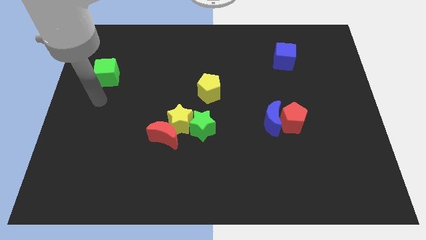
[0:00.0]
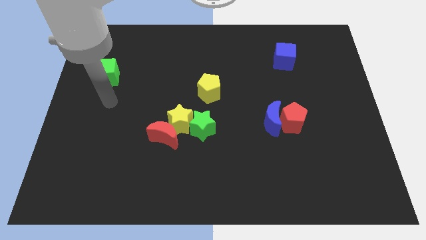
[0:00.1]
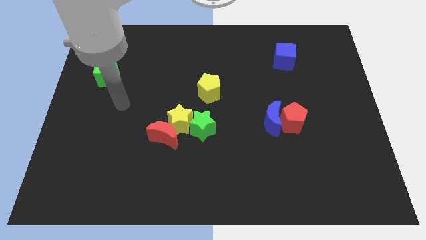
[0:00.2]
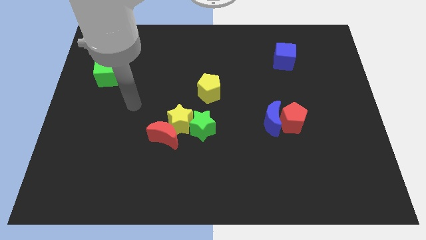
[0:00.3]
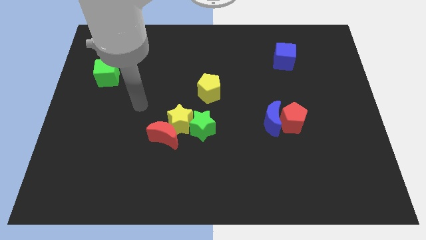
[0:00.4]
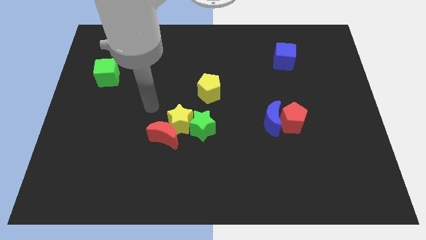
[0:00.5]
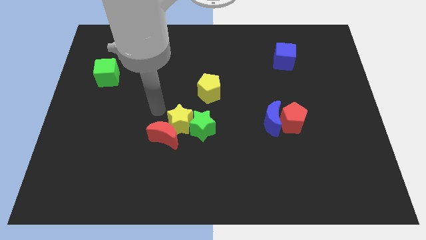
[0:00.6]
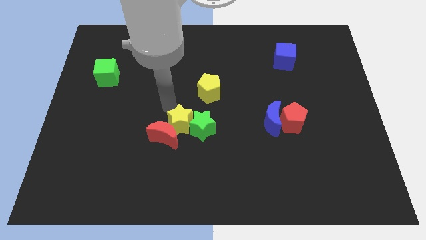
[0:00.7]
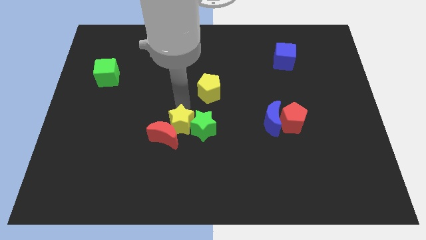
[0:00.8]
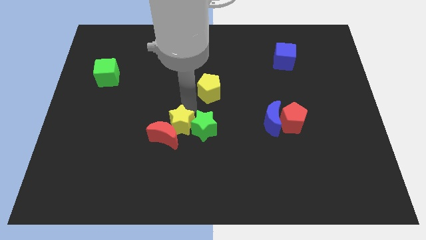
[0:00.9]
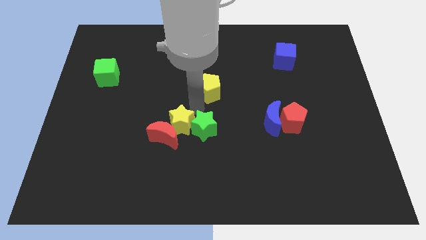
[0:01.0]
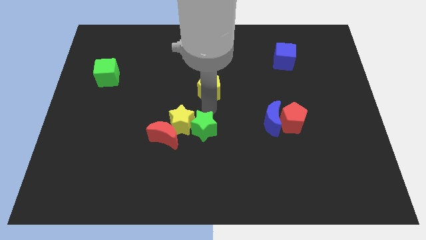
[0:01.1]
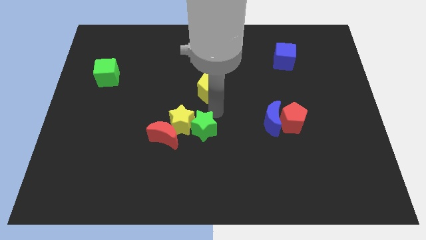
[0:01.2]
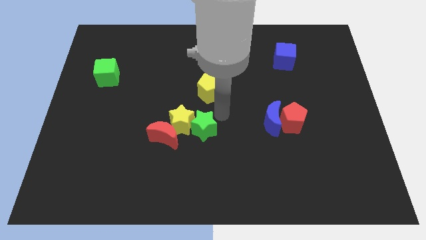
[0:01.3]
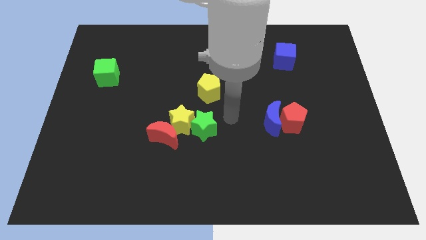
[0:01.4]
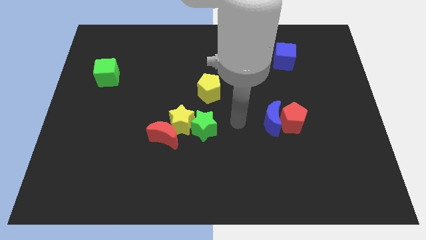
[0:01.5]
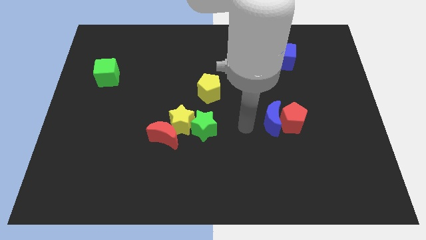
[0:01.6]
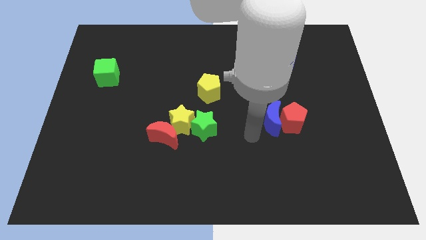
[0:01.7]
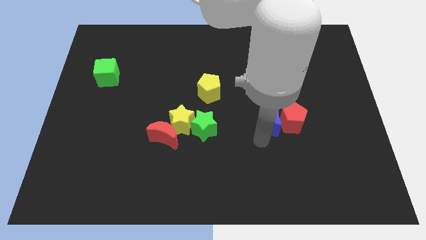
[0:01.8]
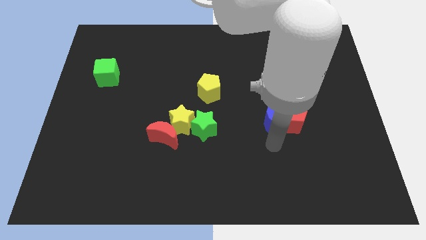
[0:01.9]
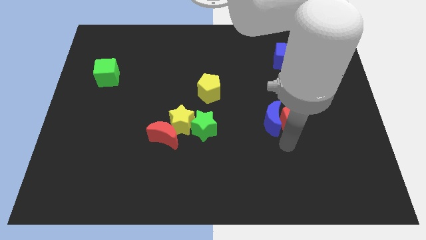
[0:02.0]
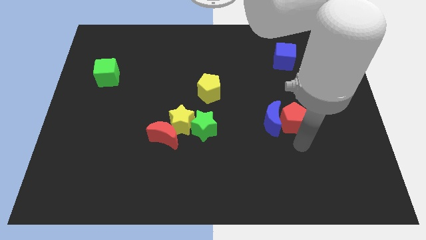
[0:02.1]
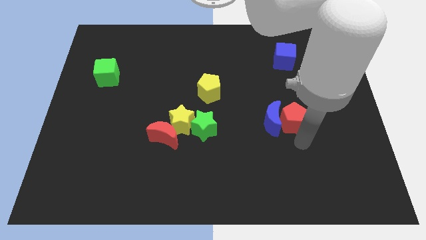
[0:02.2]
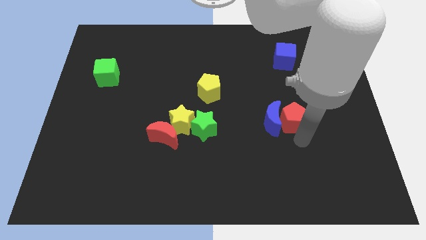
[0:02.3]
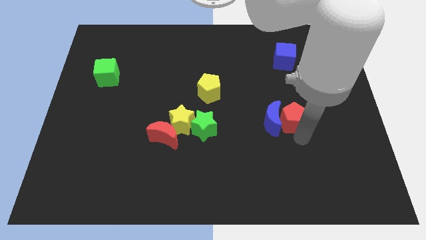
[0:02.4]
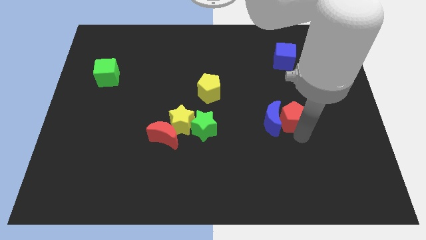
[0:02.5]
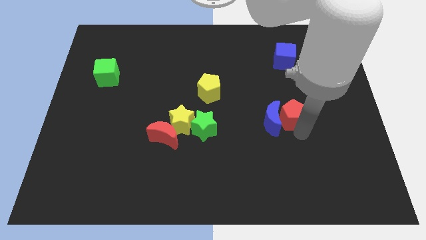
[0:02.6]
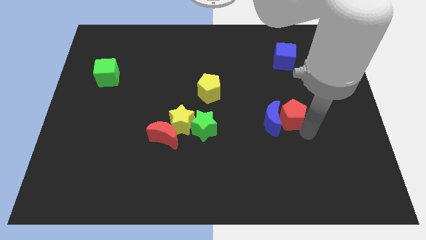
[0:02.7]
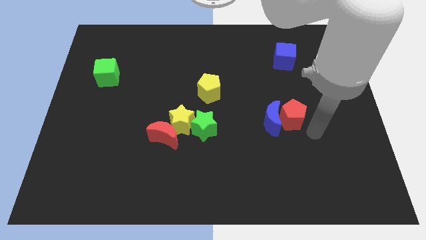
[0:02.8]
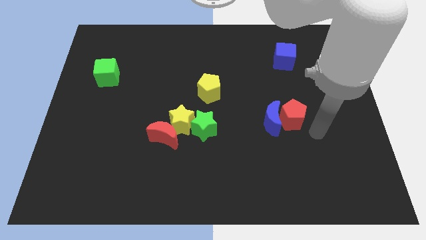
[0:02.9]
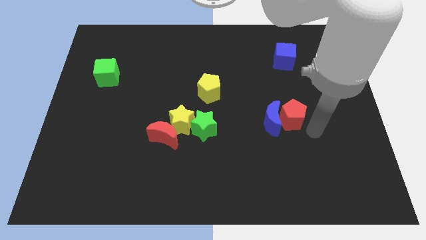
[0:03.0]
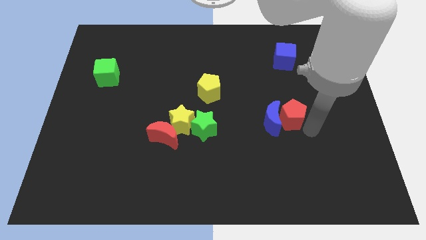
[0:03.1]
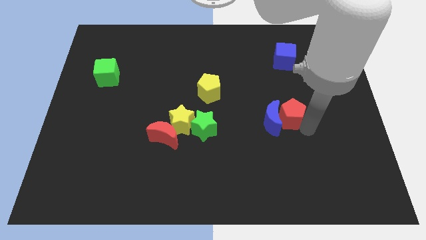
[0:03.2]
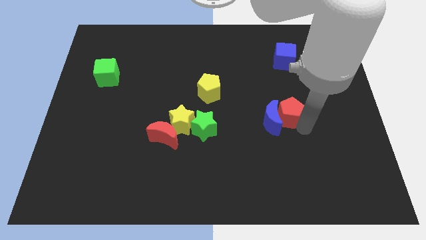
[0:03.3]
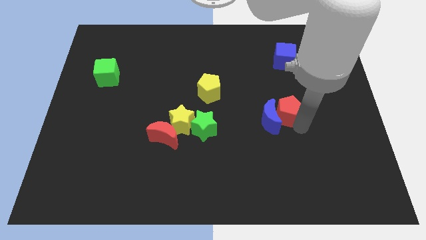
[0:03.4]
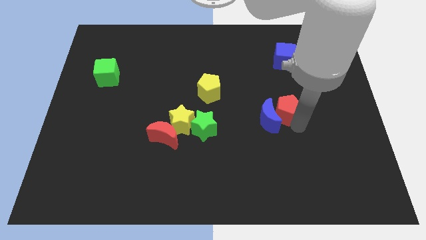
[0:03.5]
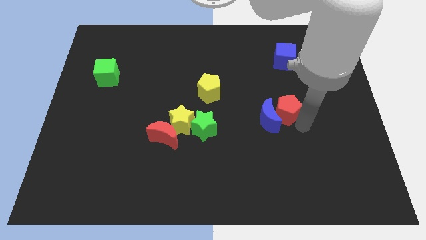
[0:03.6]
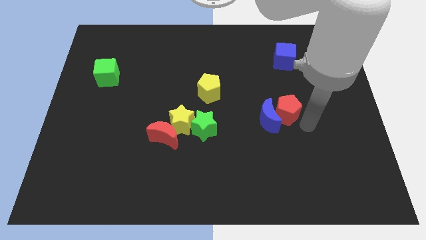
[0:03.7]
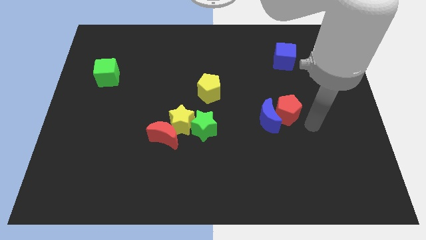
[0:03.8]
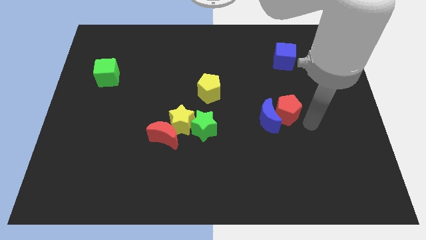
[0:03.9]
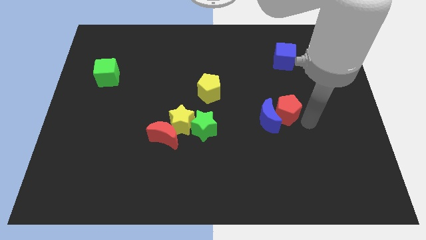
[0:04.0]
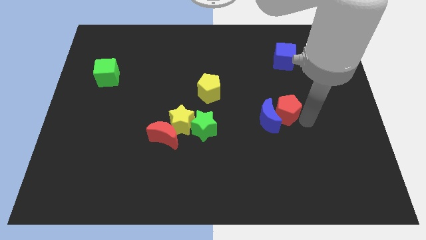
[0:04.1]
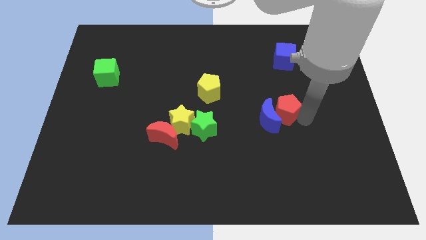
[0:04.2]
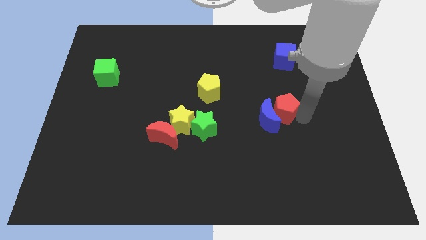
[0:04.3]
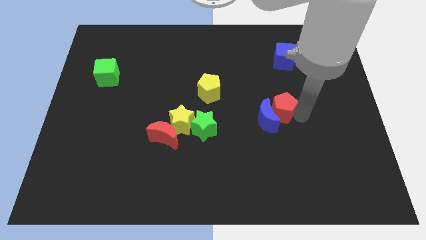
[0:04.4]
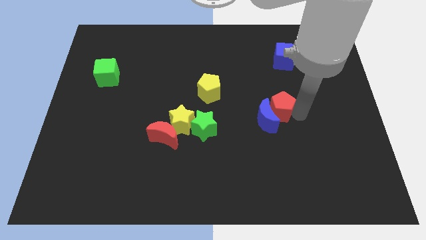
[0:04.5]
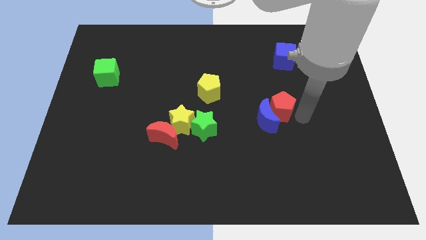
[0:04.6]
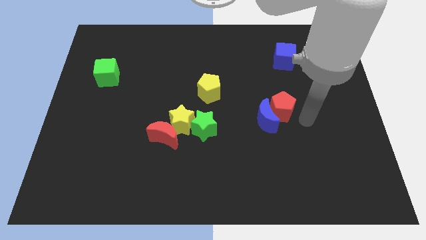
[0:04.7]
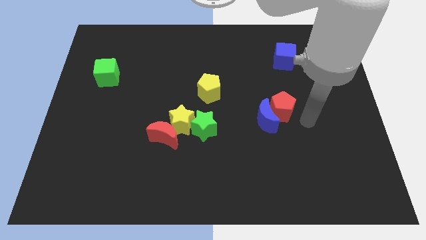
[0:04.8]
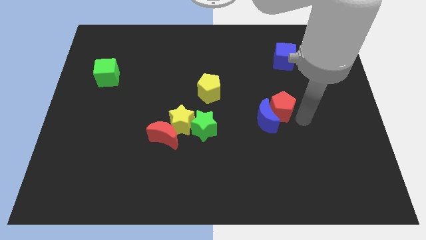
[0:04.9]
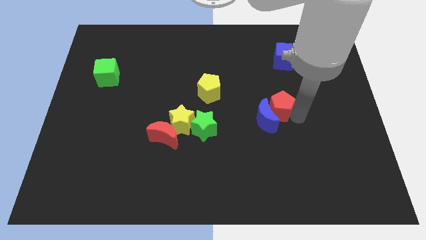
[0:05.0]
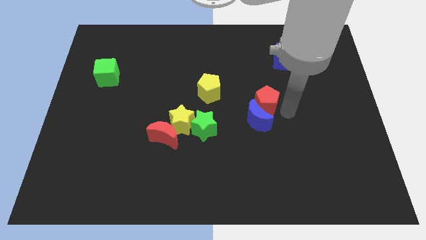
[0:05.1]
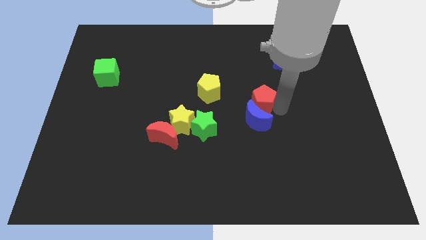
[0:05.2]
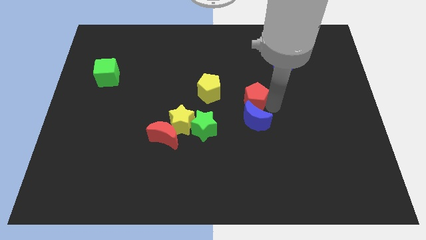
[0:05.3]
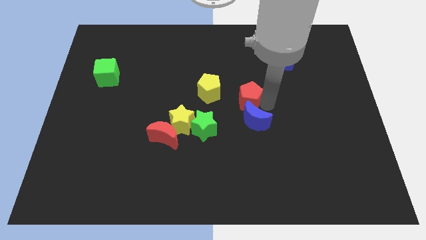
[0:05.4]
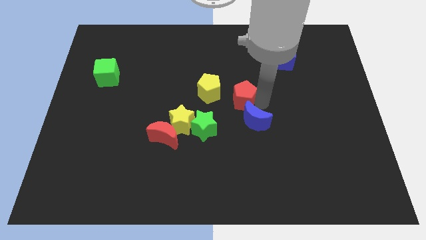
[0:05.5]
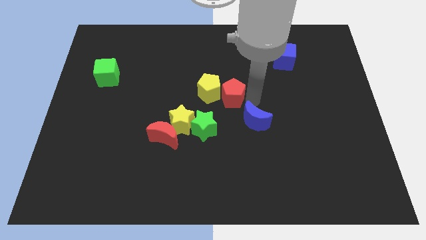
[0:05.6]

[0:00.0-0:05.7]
slide the red pentagon next to the yellow pentagon
